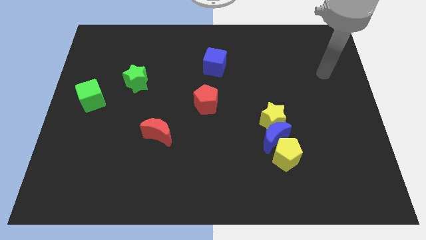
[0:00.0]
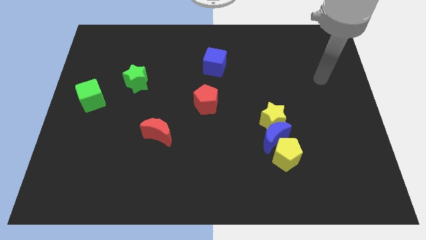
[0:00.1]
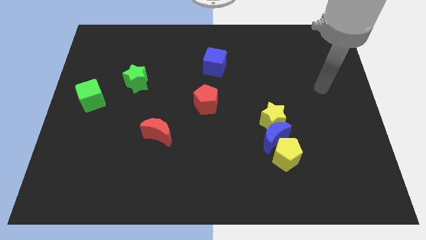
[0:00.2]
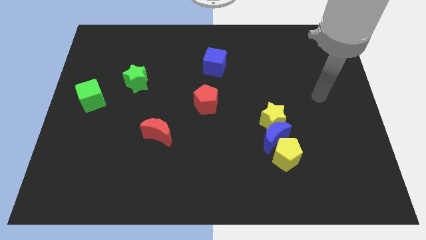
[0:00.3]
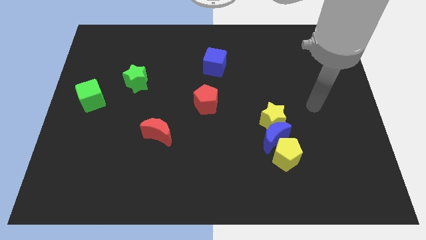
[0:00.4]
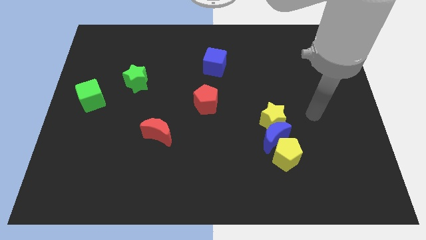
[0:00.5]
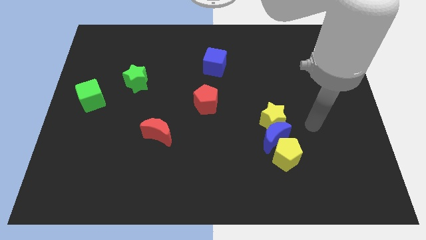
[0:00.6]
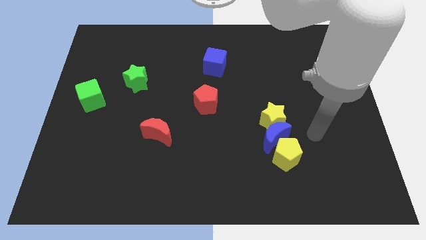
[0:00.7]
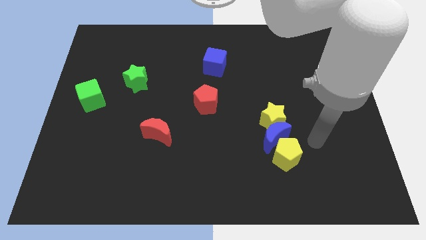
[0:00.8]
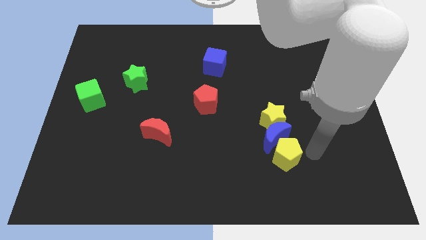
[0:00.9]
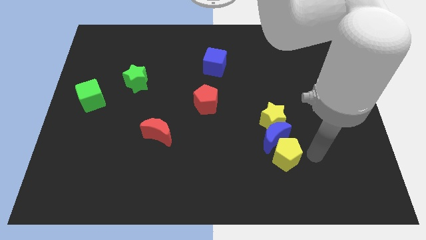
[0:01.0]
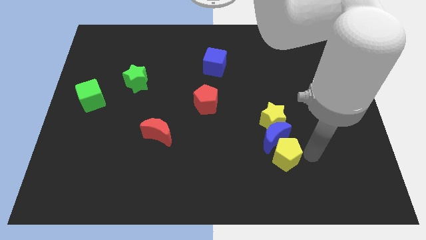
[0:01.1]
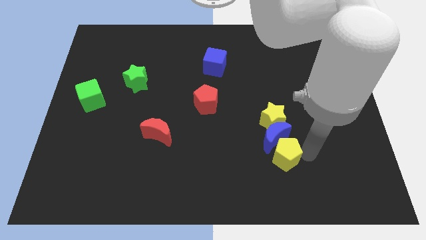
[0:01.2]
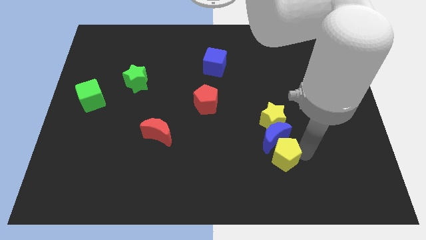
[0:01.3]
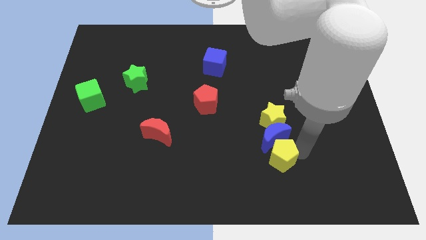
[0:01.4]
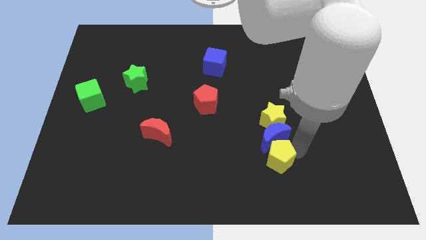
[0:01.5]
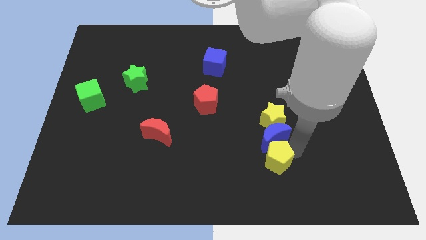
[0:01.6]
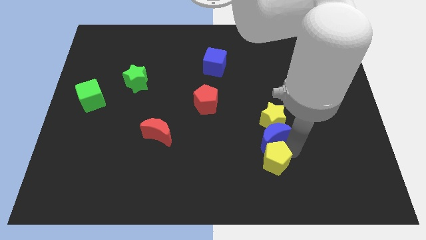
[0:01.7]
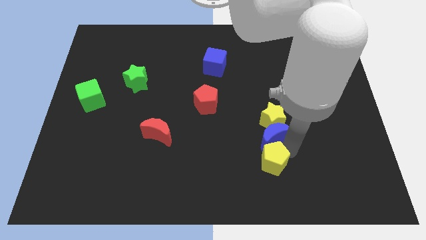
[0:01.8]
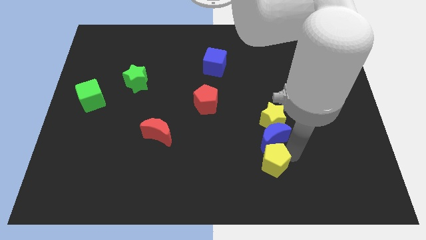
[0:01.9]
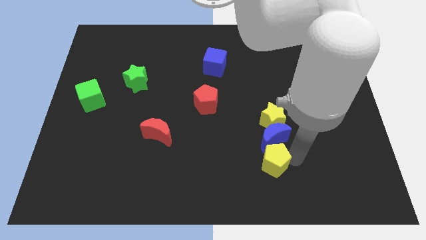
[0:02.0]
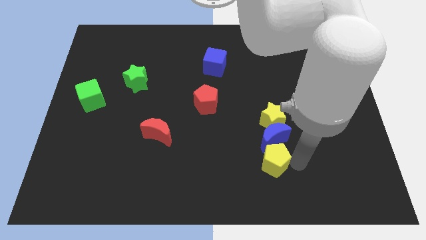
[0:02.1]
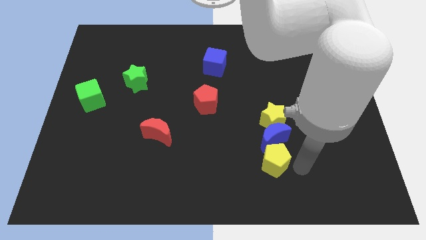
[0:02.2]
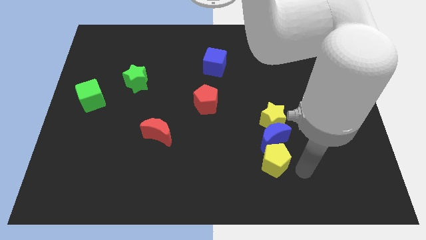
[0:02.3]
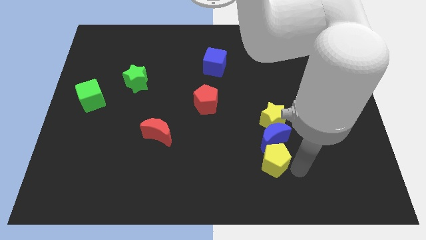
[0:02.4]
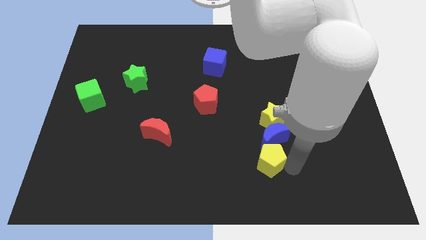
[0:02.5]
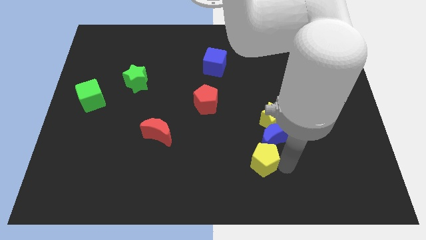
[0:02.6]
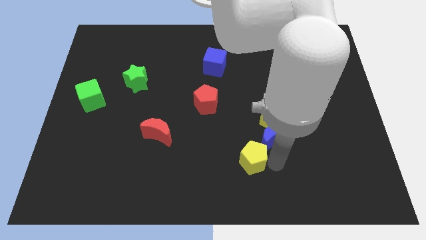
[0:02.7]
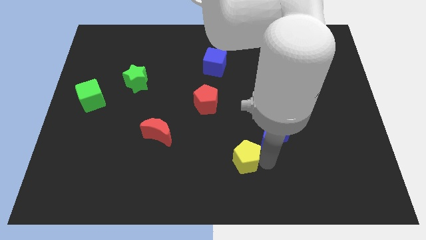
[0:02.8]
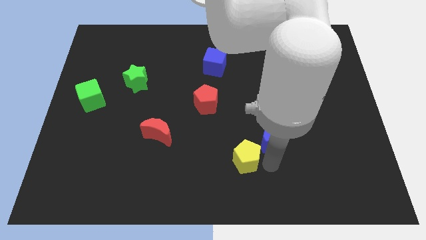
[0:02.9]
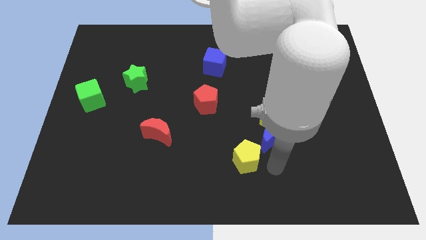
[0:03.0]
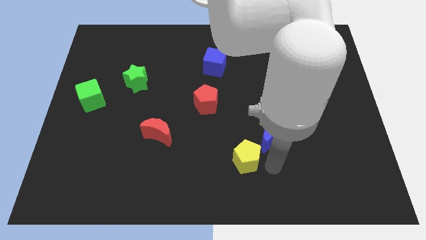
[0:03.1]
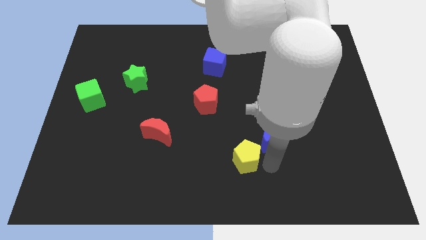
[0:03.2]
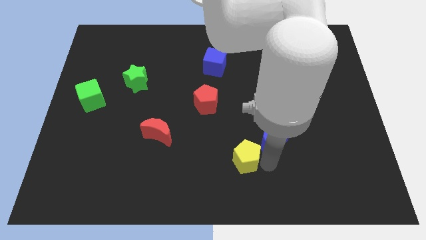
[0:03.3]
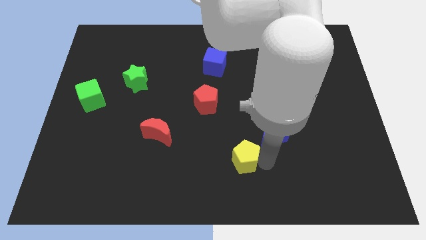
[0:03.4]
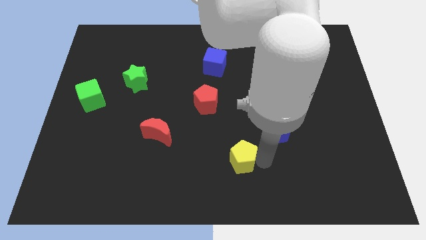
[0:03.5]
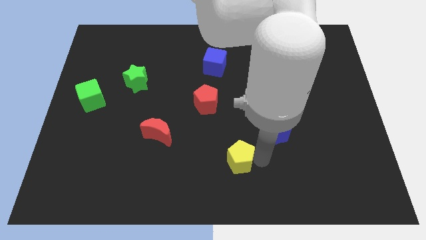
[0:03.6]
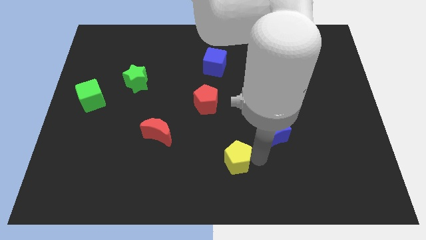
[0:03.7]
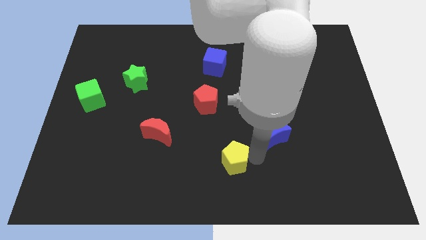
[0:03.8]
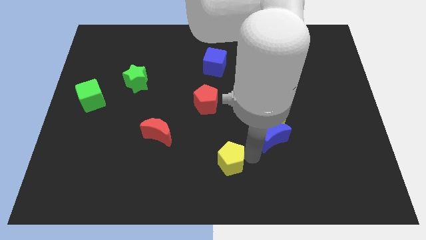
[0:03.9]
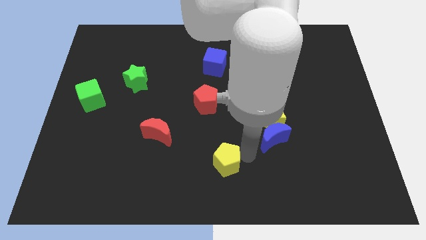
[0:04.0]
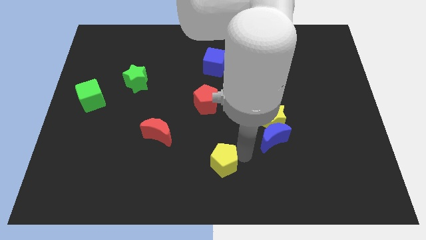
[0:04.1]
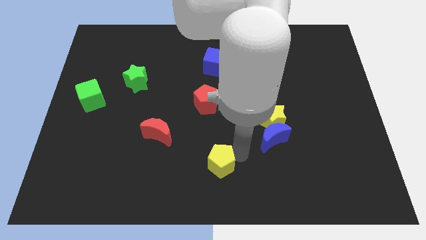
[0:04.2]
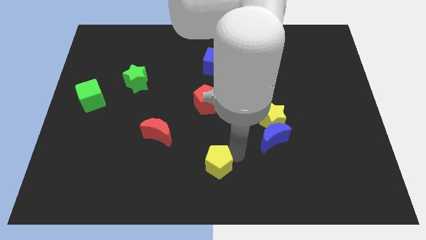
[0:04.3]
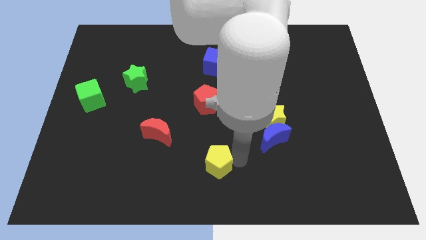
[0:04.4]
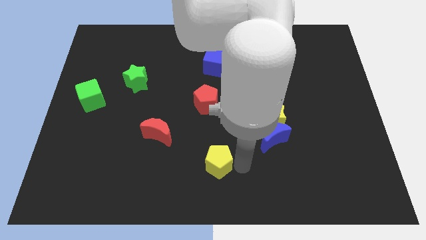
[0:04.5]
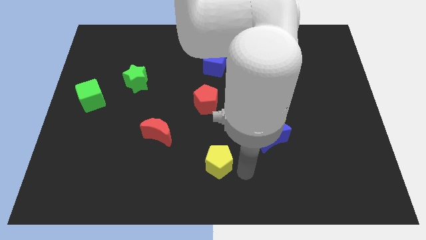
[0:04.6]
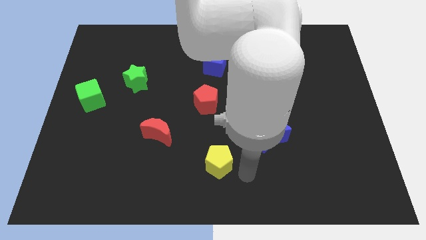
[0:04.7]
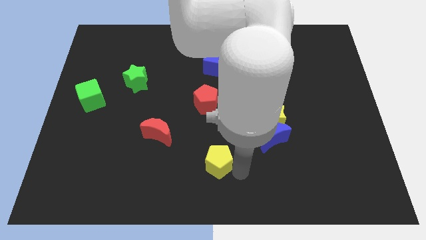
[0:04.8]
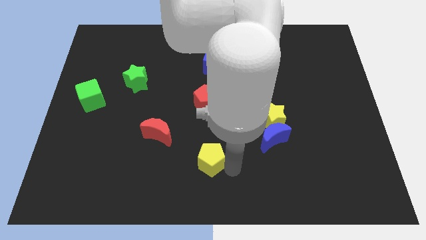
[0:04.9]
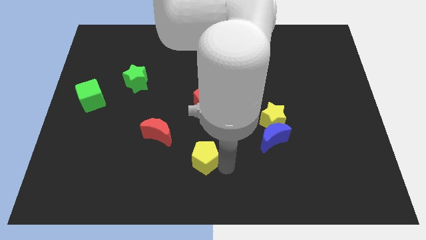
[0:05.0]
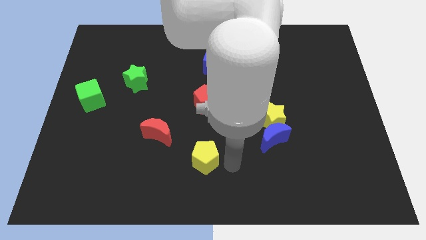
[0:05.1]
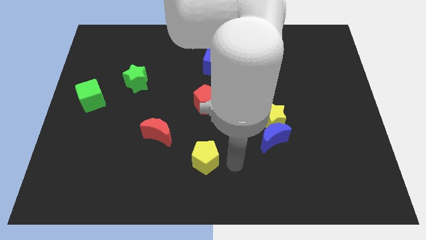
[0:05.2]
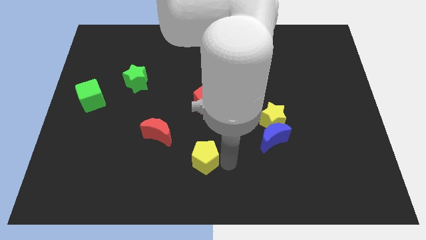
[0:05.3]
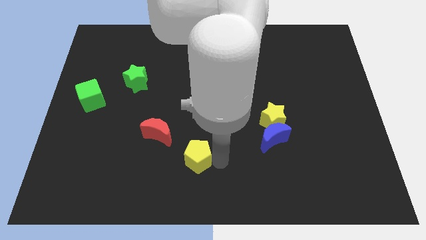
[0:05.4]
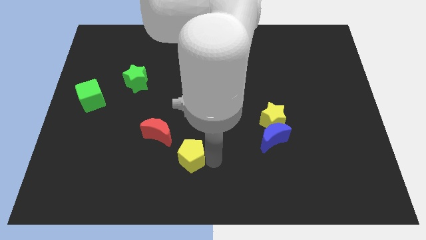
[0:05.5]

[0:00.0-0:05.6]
move the yellow pentagon to the left

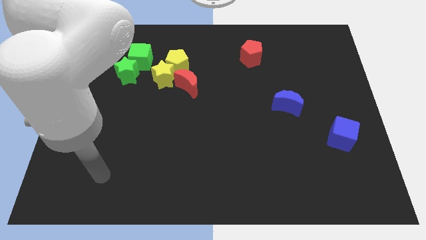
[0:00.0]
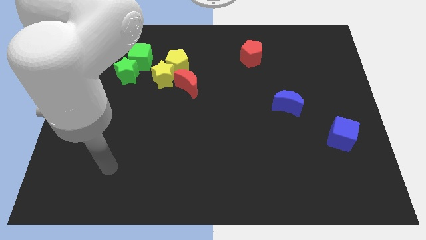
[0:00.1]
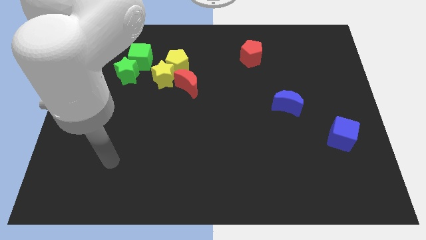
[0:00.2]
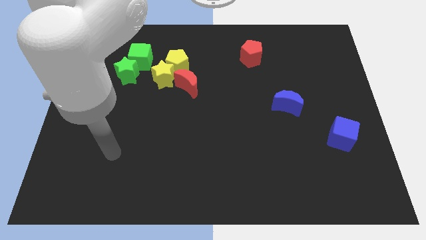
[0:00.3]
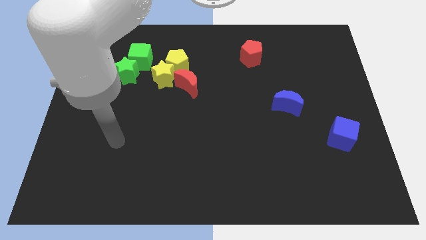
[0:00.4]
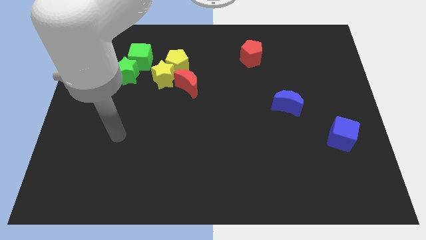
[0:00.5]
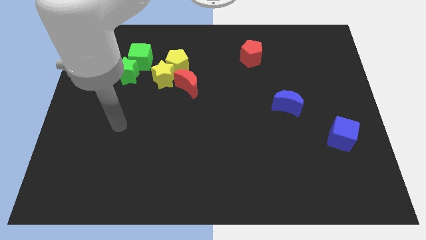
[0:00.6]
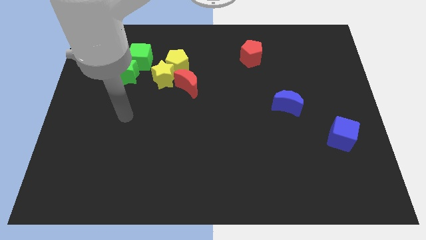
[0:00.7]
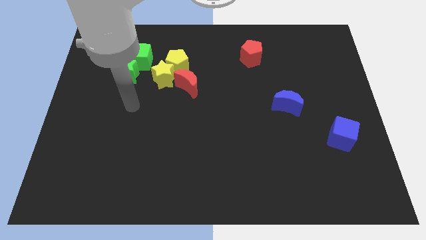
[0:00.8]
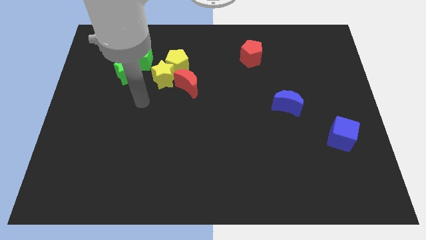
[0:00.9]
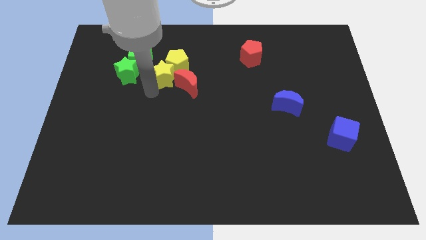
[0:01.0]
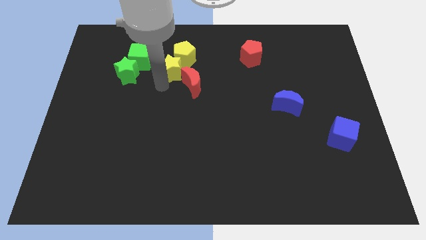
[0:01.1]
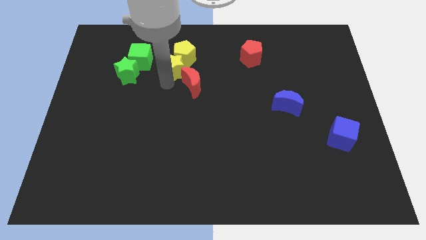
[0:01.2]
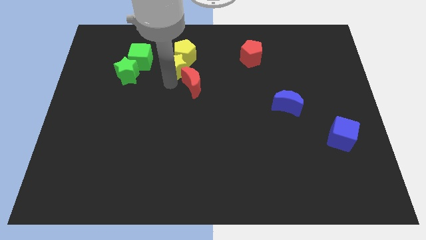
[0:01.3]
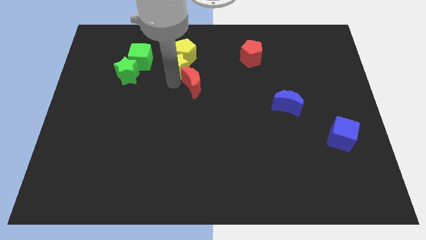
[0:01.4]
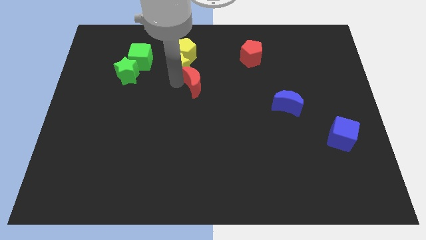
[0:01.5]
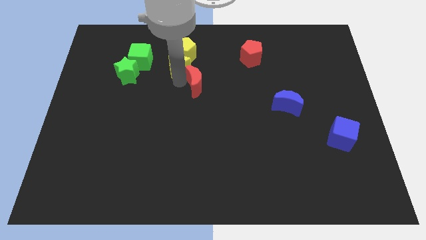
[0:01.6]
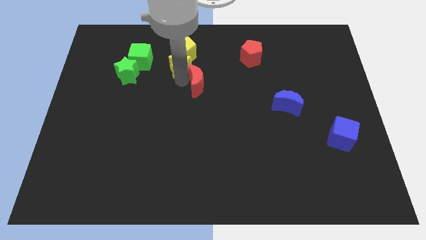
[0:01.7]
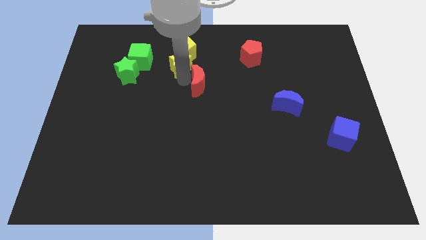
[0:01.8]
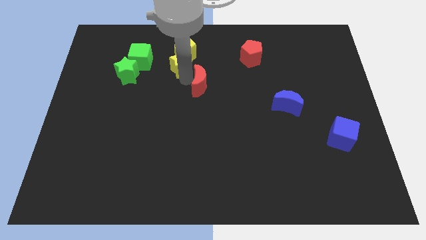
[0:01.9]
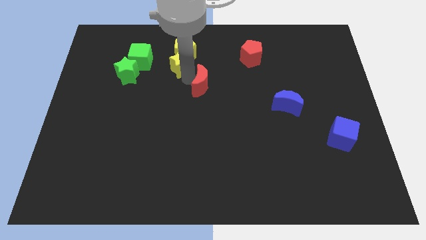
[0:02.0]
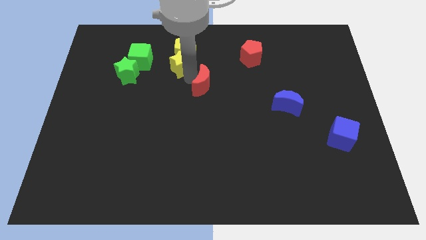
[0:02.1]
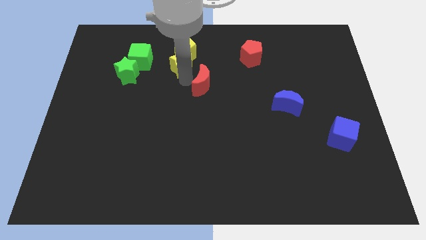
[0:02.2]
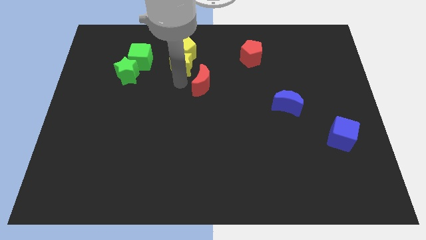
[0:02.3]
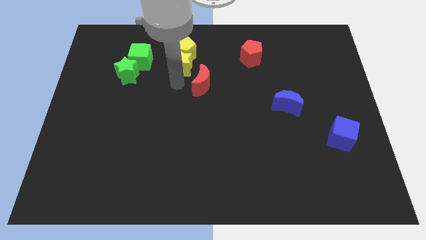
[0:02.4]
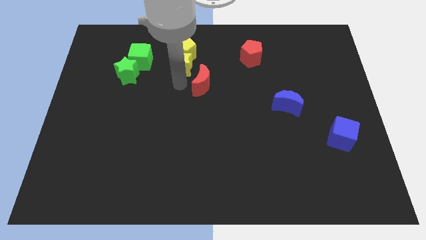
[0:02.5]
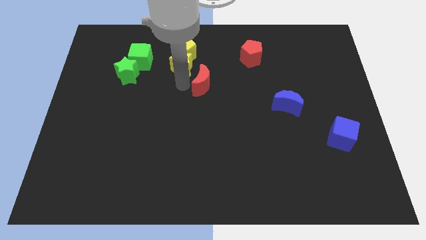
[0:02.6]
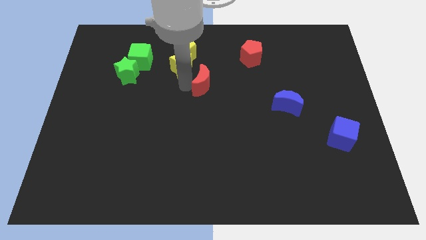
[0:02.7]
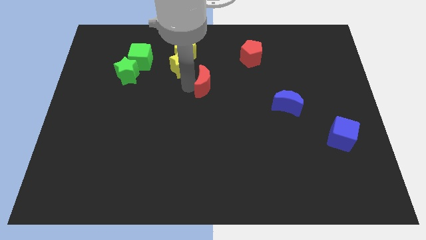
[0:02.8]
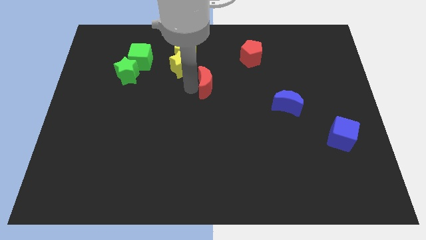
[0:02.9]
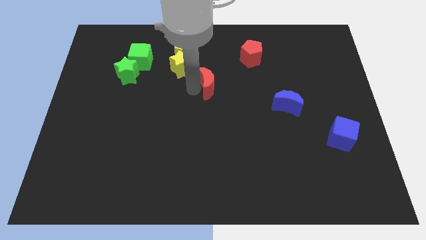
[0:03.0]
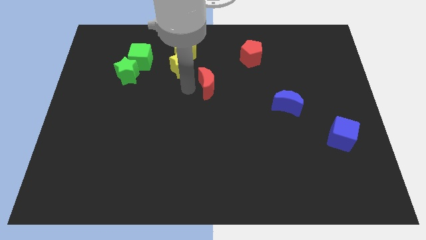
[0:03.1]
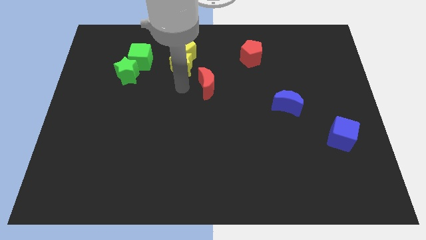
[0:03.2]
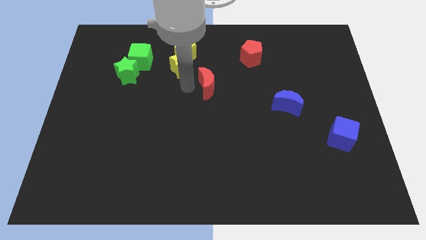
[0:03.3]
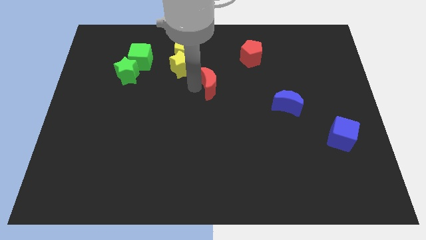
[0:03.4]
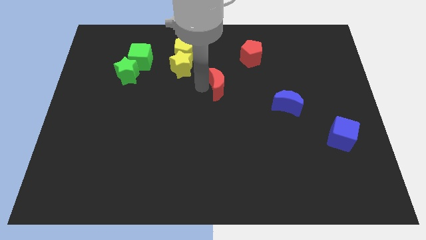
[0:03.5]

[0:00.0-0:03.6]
move the red moon slightly right
